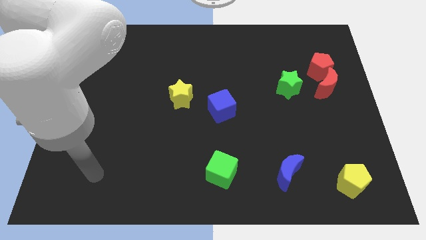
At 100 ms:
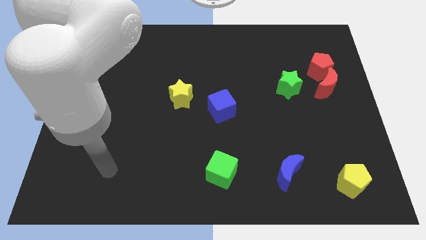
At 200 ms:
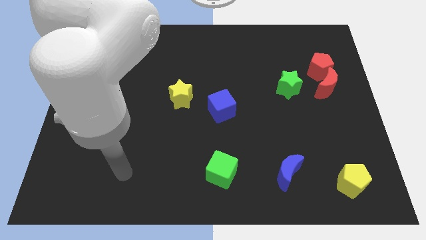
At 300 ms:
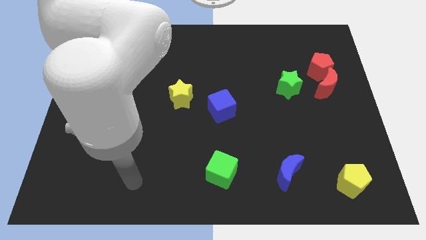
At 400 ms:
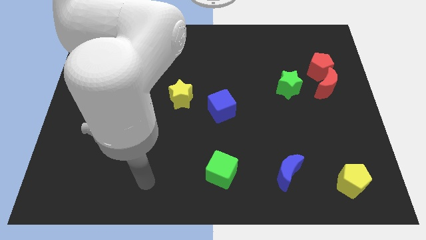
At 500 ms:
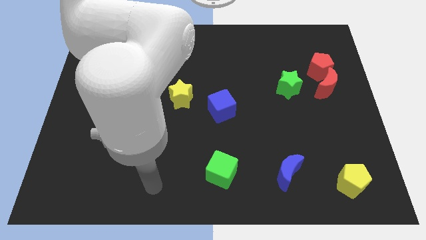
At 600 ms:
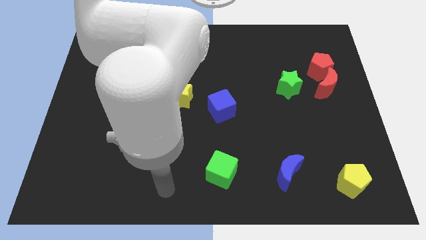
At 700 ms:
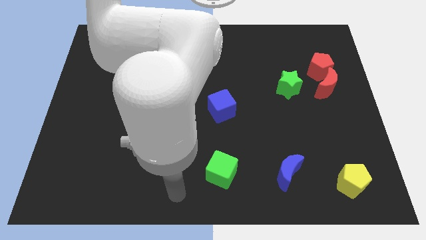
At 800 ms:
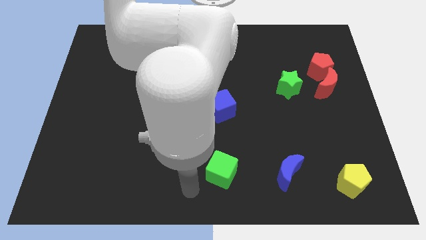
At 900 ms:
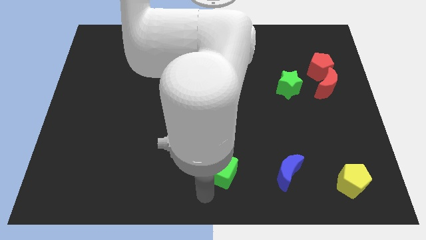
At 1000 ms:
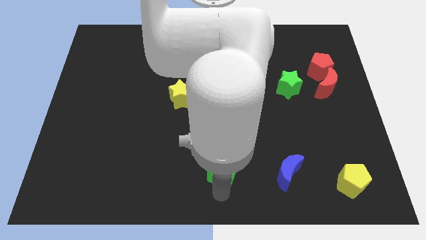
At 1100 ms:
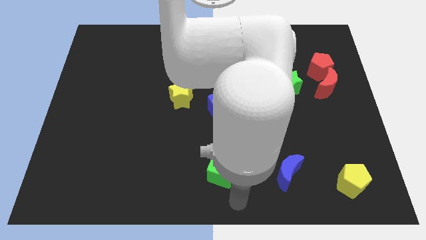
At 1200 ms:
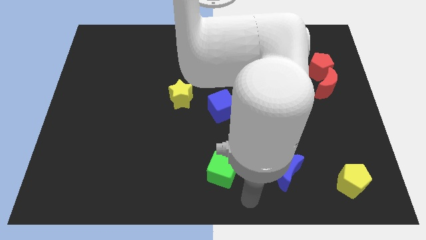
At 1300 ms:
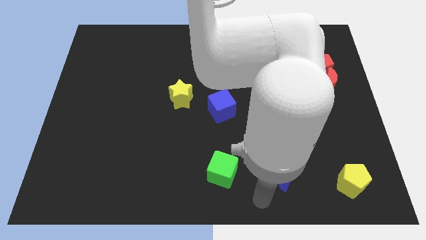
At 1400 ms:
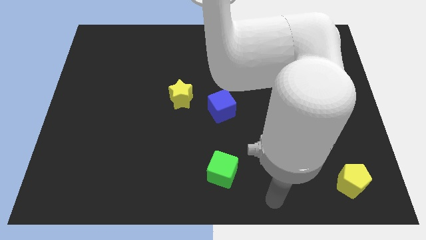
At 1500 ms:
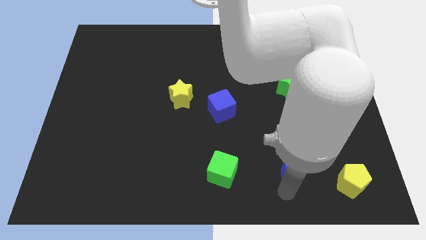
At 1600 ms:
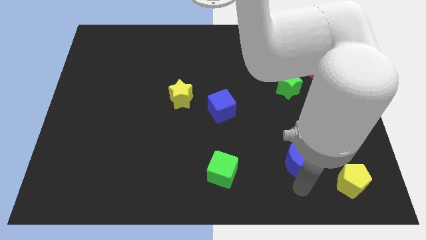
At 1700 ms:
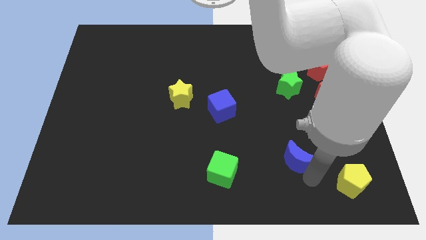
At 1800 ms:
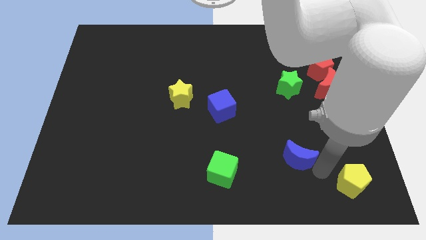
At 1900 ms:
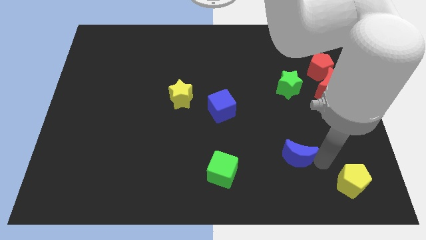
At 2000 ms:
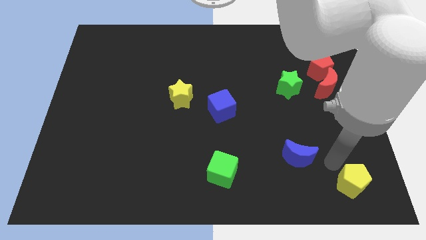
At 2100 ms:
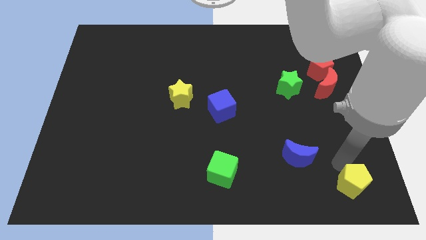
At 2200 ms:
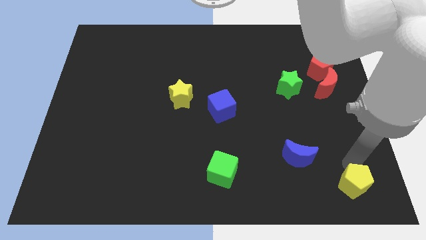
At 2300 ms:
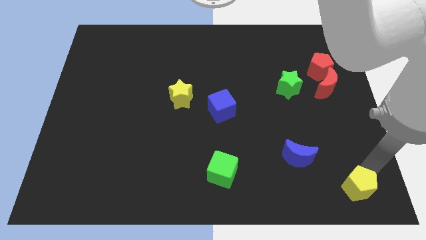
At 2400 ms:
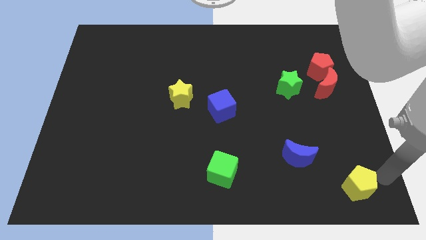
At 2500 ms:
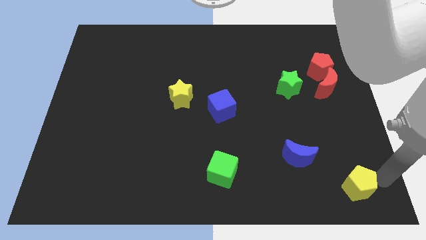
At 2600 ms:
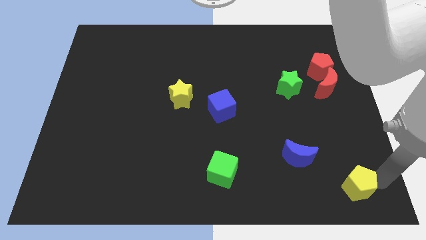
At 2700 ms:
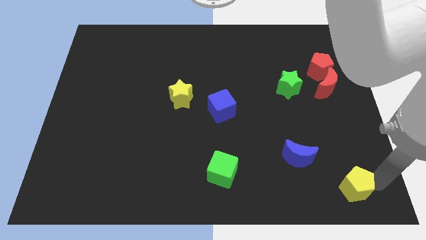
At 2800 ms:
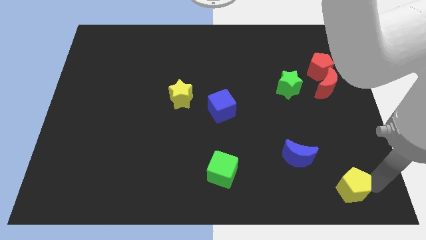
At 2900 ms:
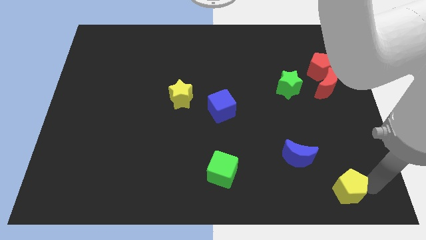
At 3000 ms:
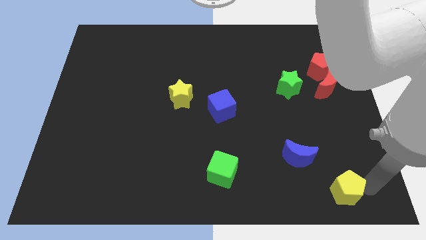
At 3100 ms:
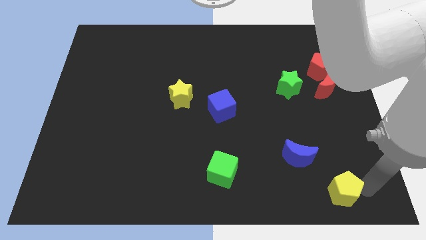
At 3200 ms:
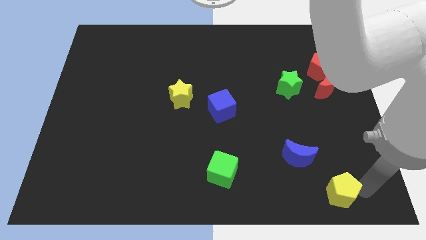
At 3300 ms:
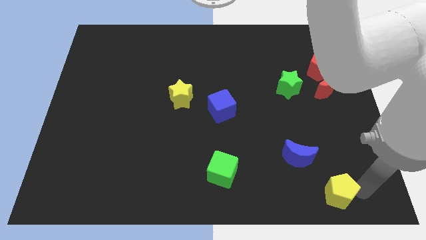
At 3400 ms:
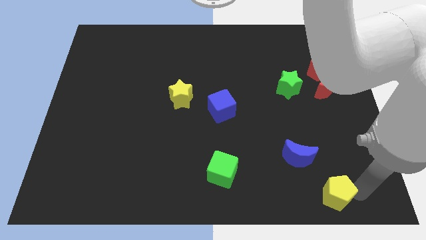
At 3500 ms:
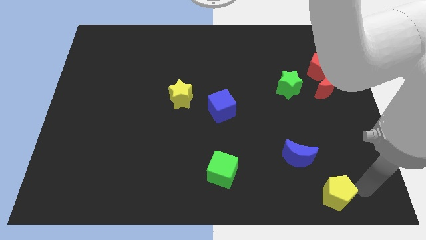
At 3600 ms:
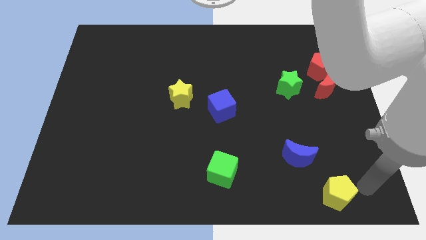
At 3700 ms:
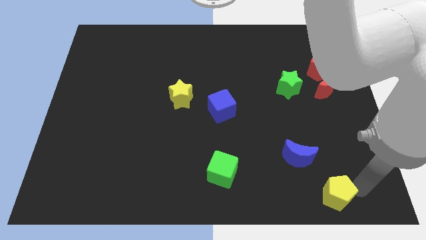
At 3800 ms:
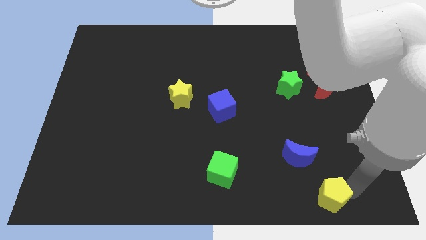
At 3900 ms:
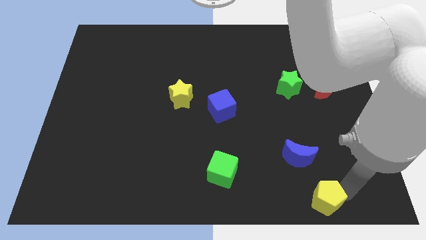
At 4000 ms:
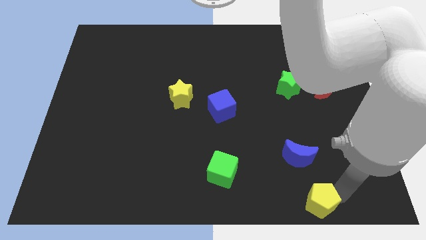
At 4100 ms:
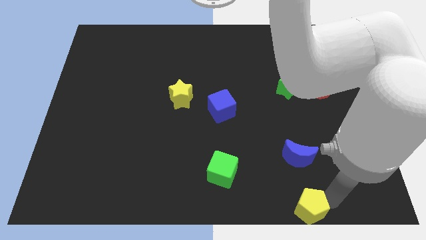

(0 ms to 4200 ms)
slide the yellow pentagon left slightly

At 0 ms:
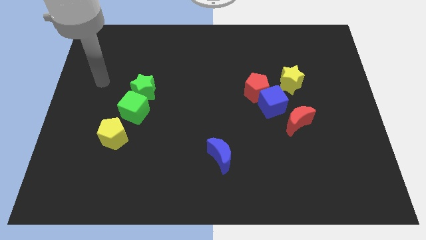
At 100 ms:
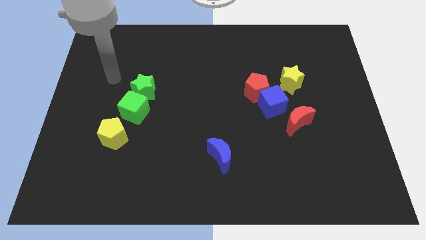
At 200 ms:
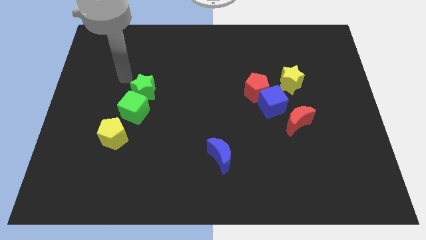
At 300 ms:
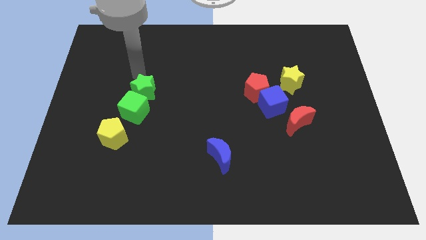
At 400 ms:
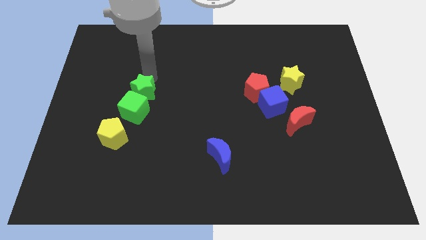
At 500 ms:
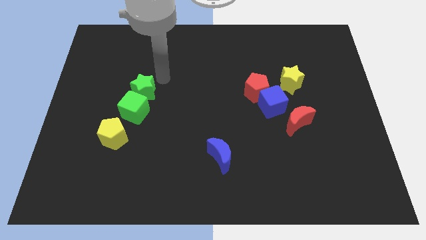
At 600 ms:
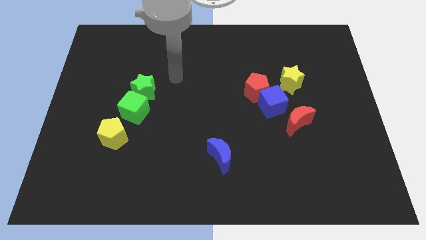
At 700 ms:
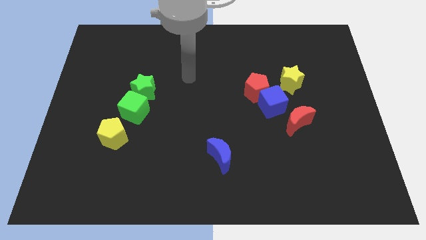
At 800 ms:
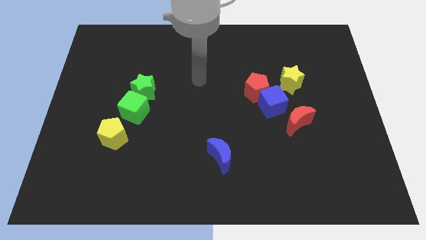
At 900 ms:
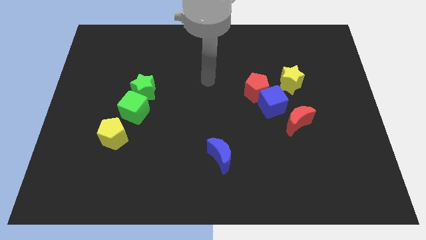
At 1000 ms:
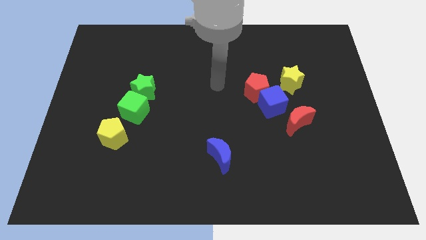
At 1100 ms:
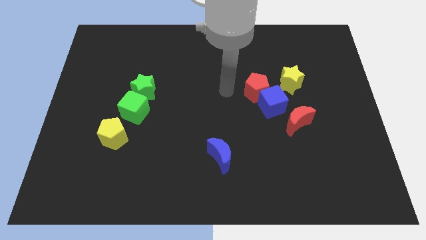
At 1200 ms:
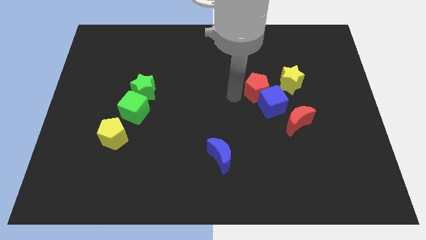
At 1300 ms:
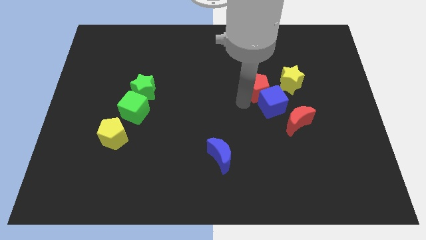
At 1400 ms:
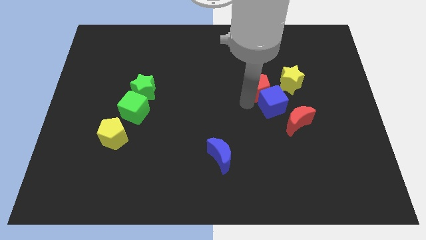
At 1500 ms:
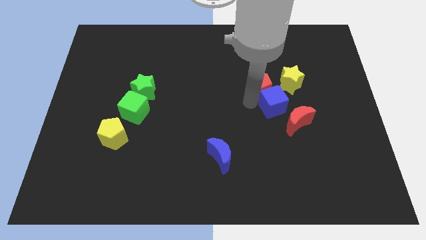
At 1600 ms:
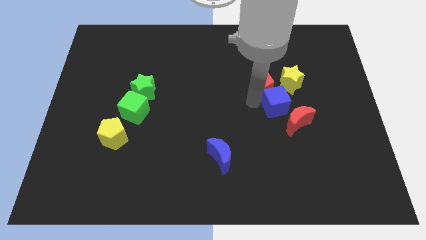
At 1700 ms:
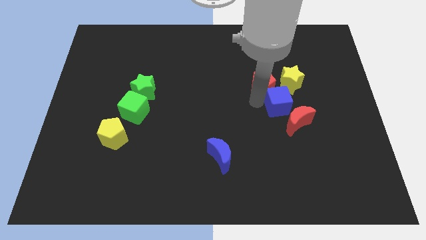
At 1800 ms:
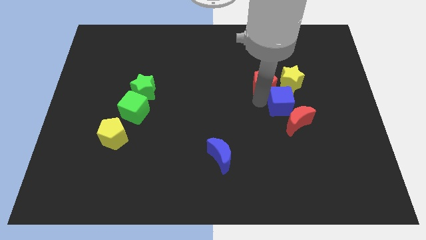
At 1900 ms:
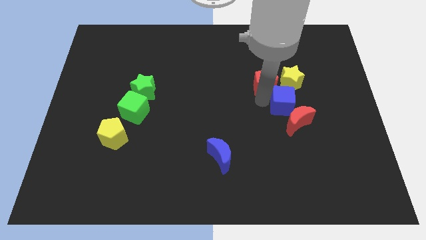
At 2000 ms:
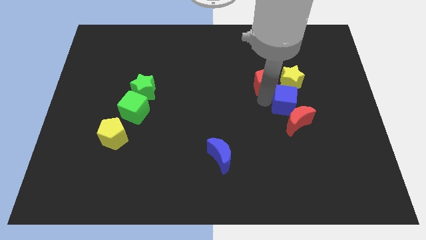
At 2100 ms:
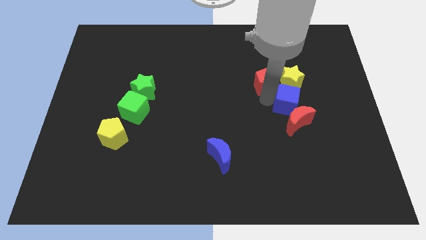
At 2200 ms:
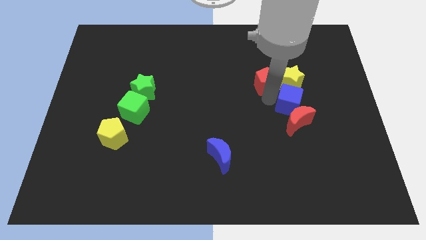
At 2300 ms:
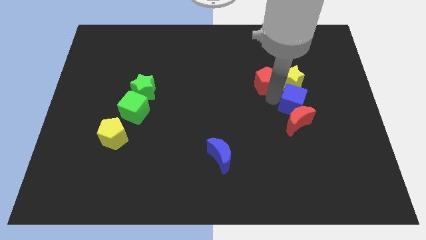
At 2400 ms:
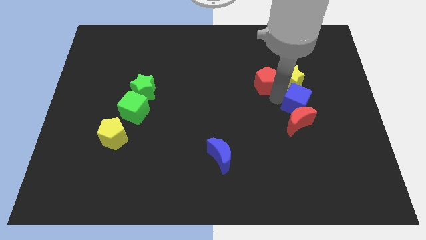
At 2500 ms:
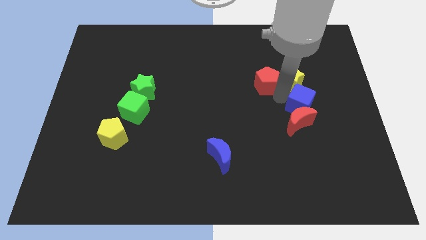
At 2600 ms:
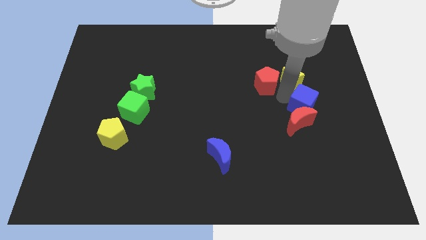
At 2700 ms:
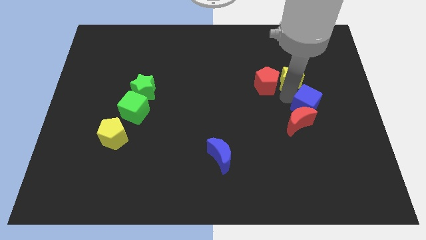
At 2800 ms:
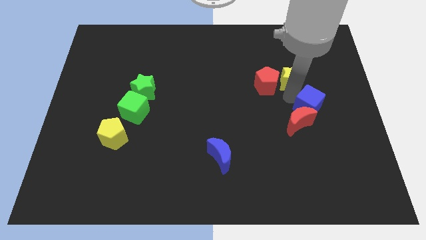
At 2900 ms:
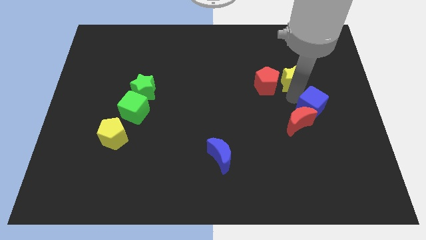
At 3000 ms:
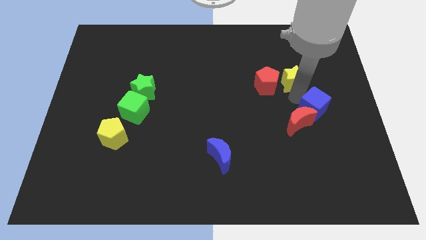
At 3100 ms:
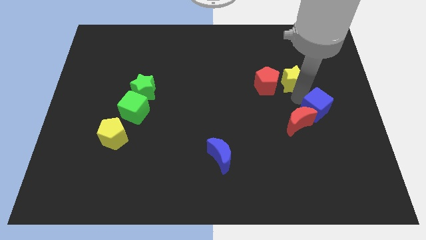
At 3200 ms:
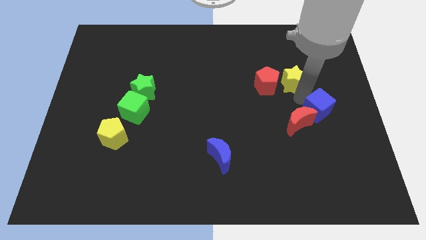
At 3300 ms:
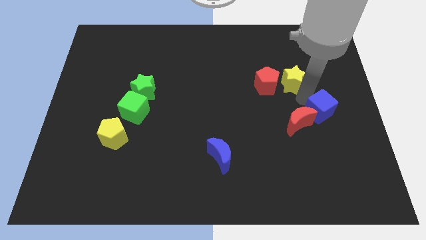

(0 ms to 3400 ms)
slide the blue cube a little down and then right

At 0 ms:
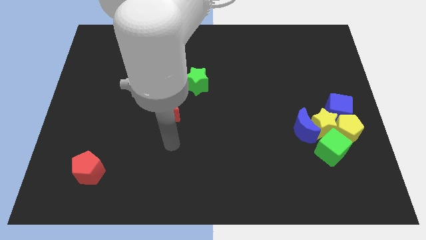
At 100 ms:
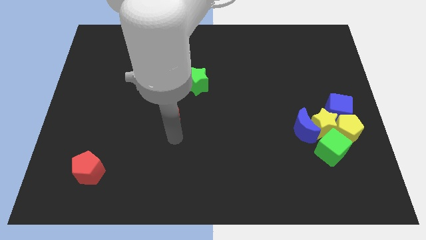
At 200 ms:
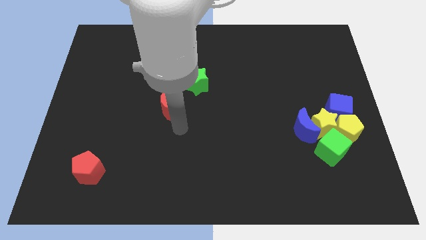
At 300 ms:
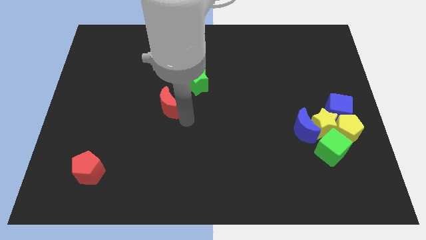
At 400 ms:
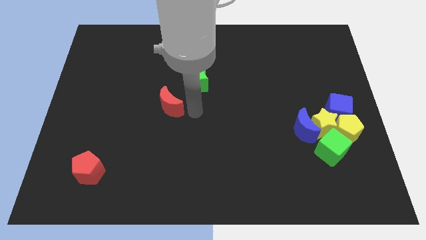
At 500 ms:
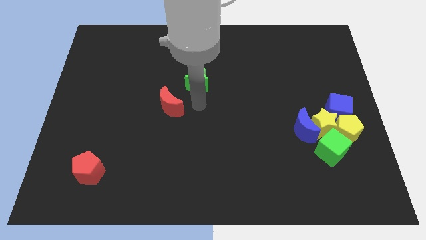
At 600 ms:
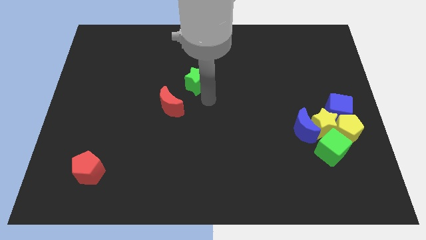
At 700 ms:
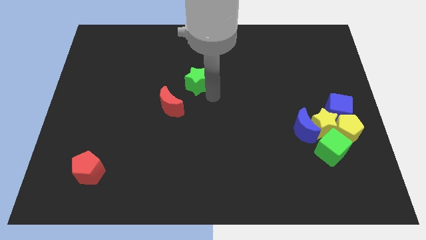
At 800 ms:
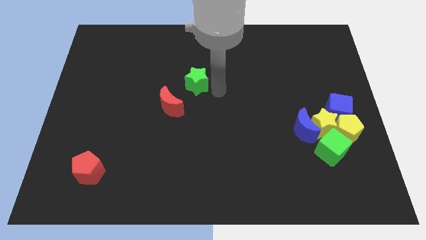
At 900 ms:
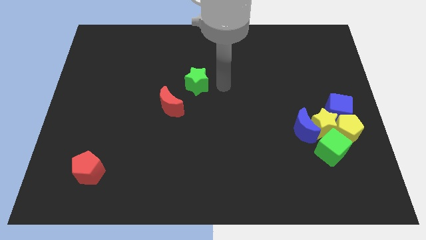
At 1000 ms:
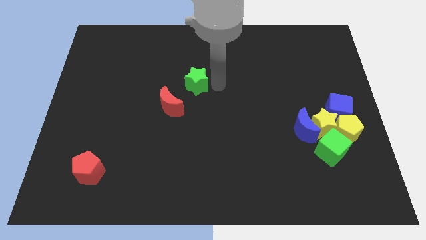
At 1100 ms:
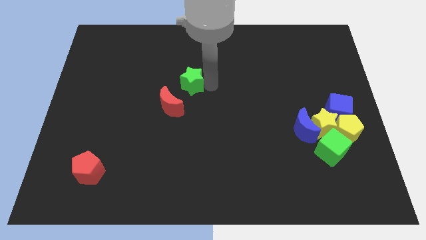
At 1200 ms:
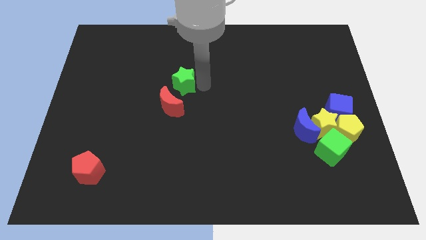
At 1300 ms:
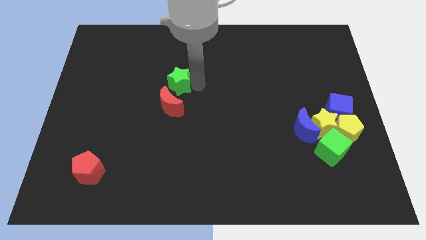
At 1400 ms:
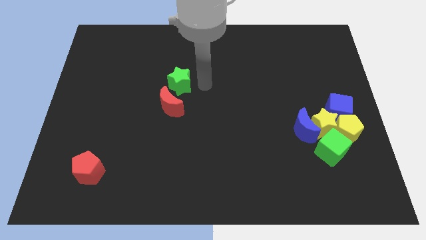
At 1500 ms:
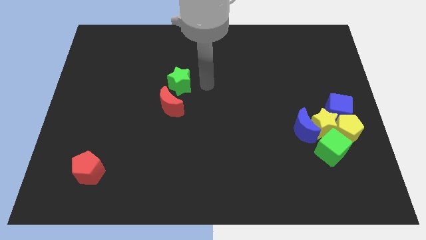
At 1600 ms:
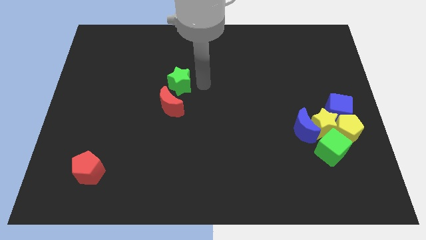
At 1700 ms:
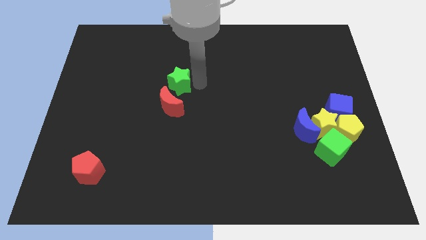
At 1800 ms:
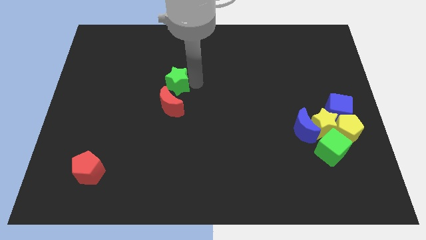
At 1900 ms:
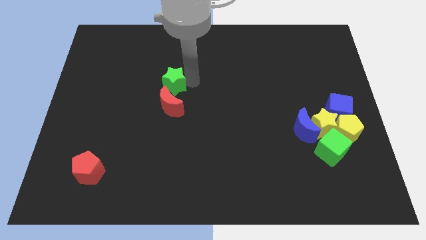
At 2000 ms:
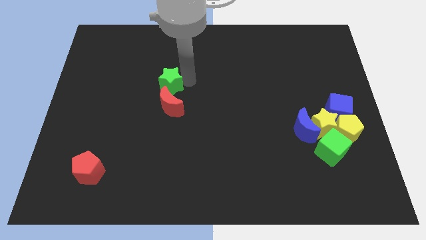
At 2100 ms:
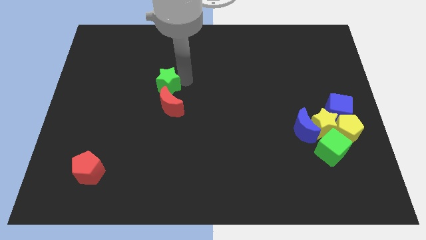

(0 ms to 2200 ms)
push the green star left slightly
